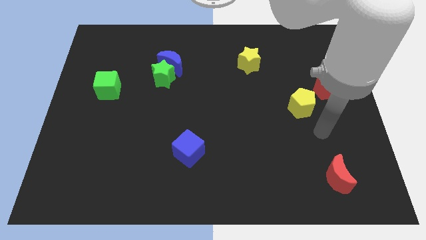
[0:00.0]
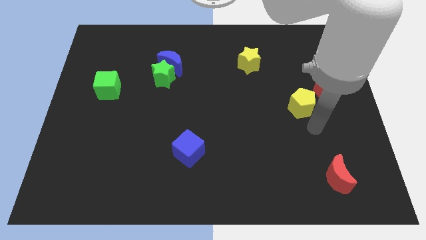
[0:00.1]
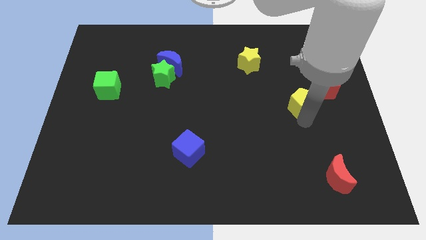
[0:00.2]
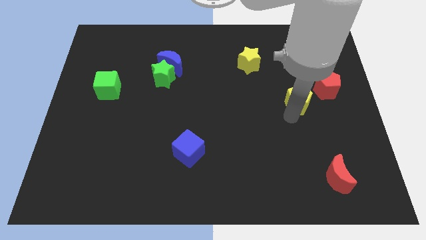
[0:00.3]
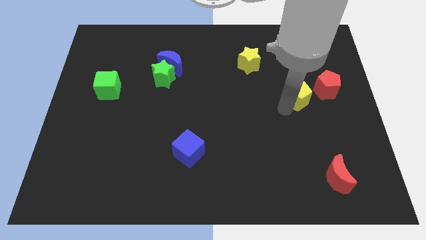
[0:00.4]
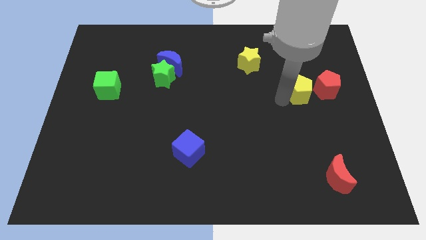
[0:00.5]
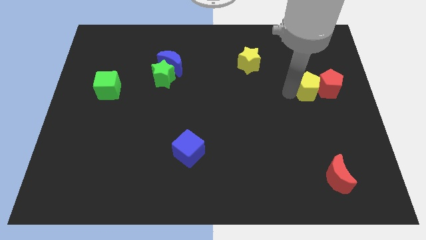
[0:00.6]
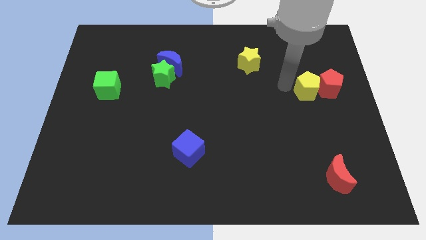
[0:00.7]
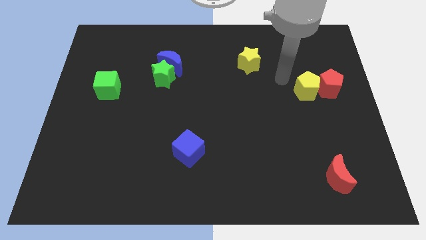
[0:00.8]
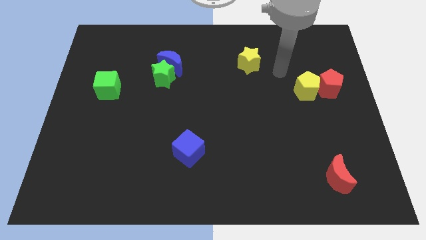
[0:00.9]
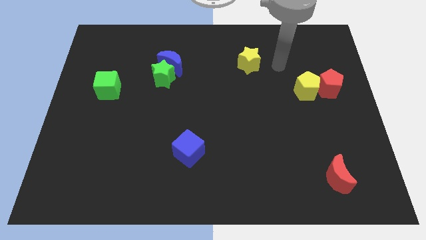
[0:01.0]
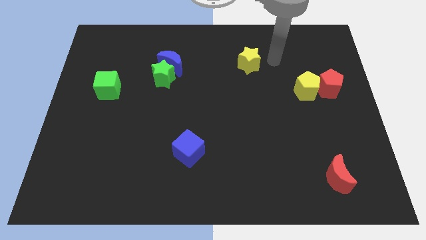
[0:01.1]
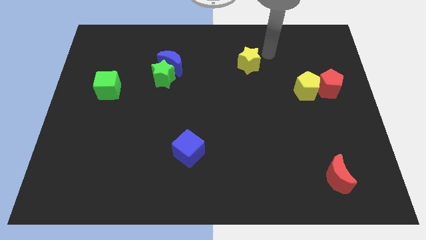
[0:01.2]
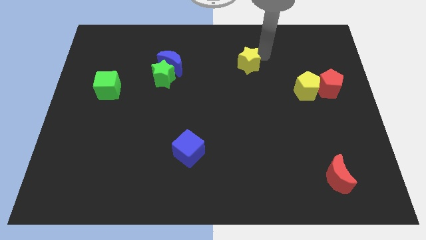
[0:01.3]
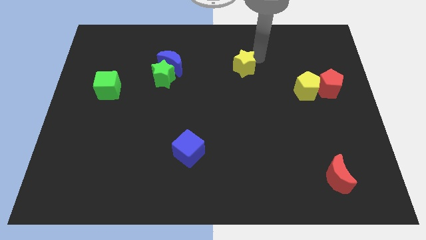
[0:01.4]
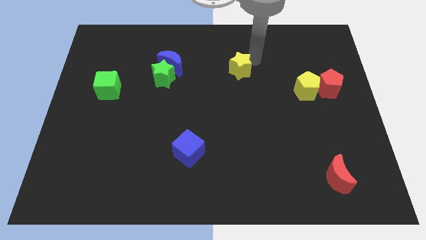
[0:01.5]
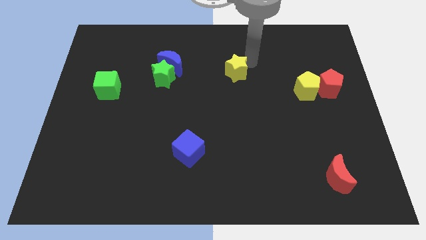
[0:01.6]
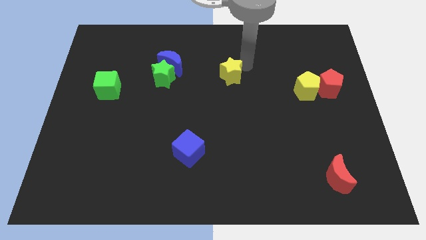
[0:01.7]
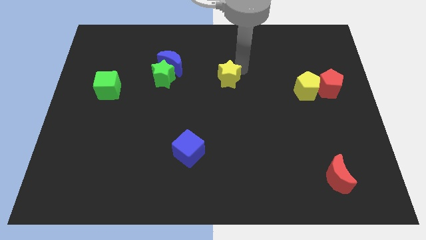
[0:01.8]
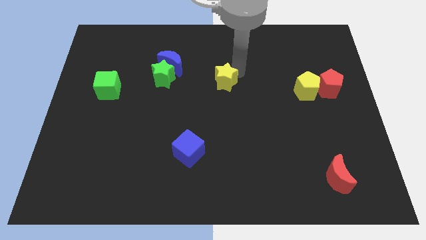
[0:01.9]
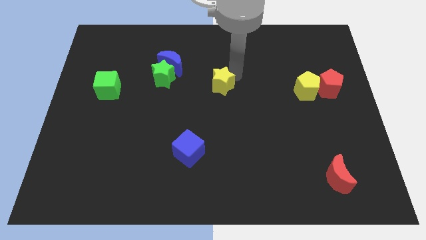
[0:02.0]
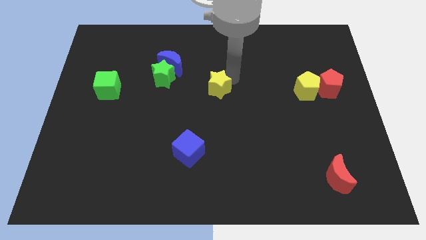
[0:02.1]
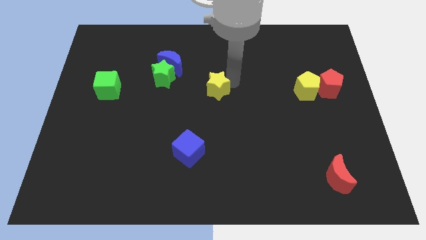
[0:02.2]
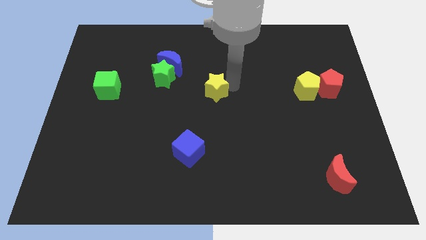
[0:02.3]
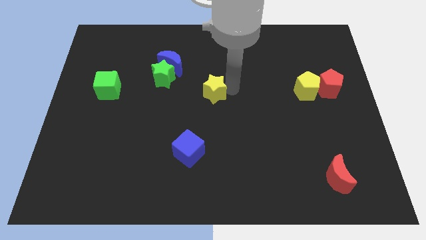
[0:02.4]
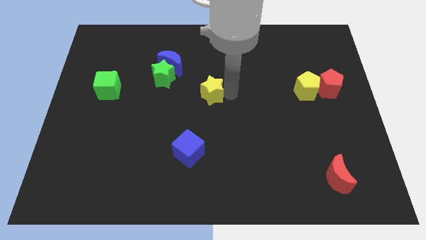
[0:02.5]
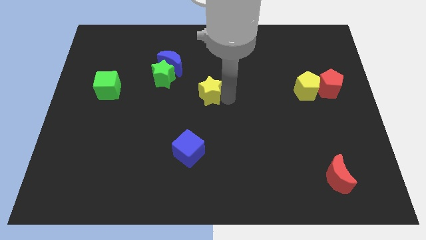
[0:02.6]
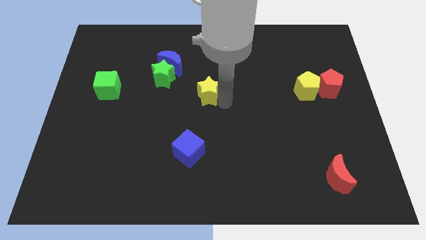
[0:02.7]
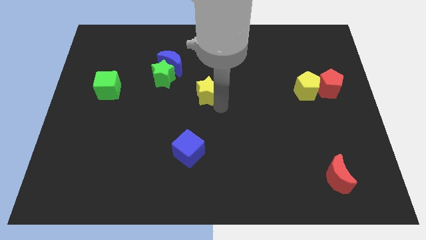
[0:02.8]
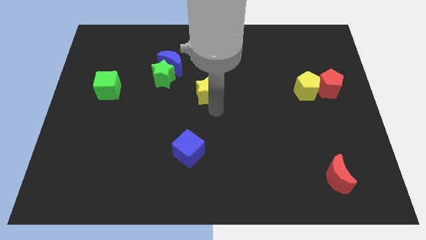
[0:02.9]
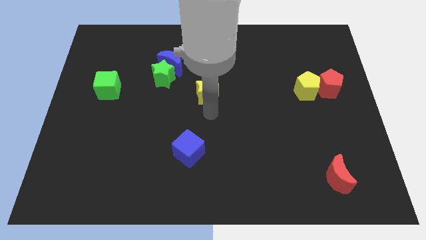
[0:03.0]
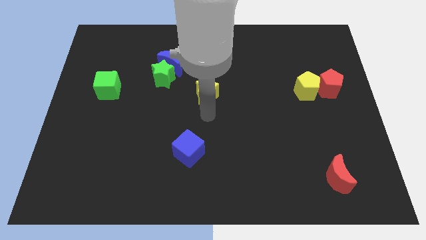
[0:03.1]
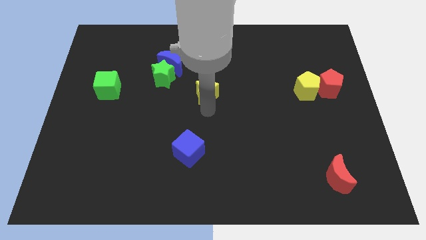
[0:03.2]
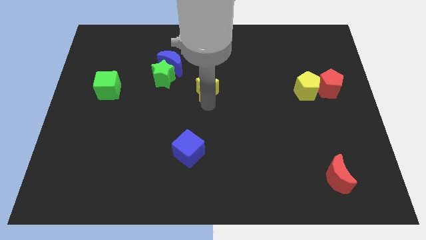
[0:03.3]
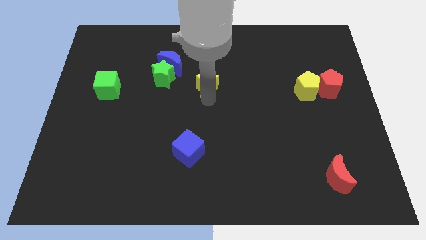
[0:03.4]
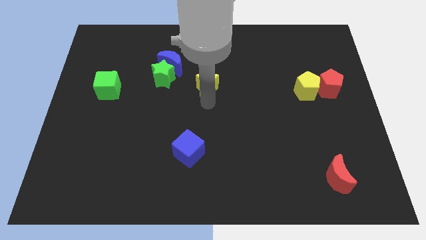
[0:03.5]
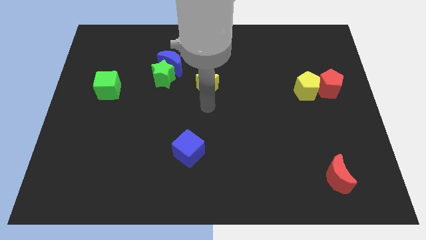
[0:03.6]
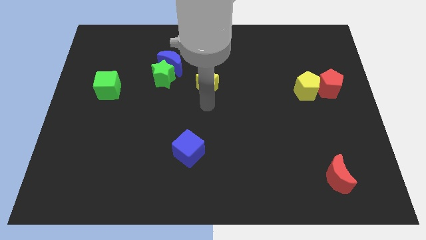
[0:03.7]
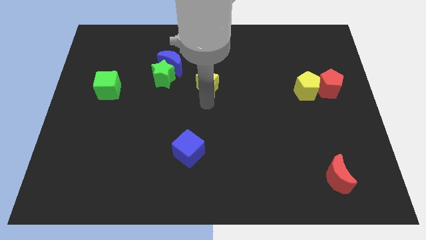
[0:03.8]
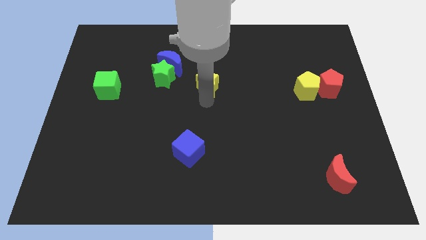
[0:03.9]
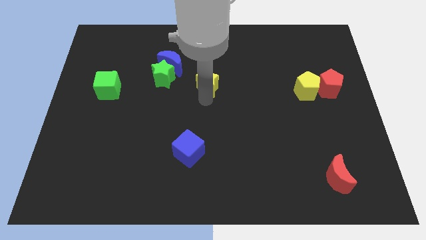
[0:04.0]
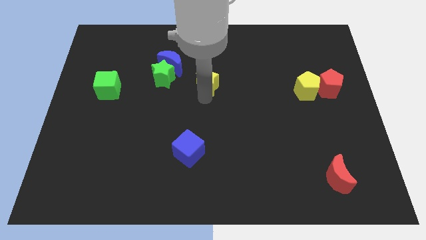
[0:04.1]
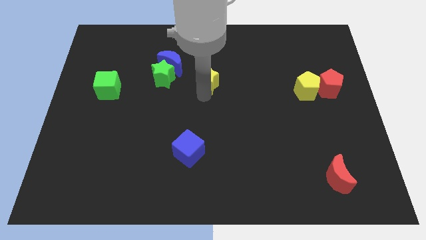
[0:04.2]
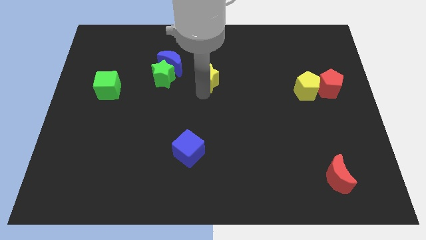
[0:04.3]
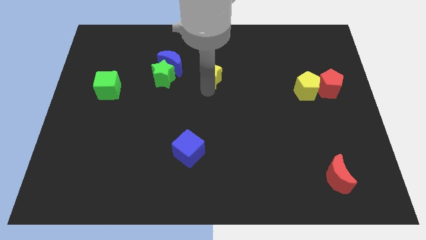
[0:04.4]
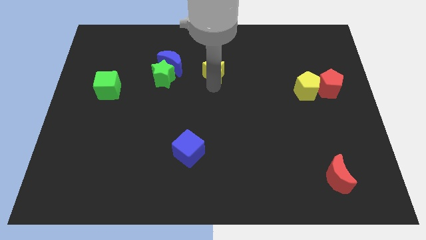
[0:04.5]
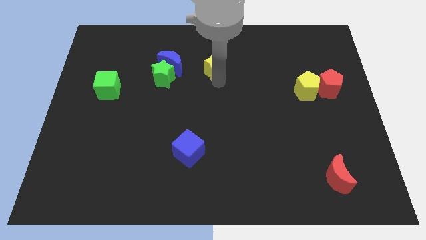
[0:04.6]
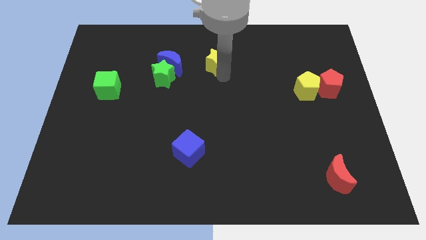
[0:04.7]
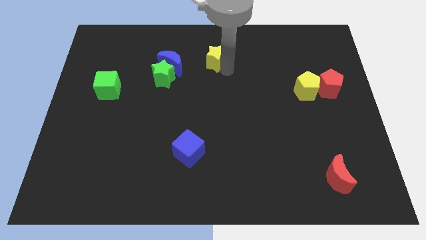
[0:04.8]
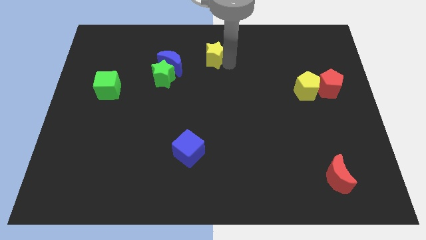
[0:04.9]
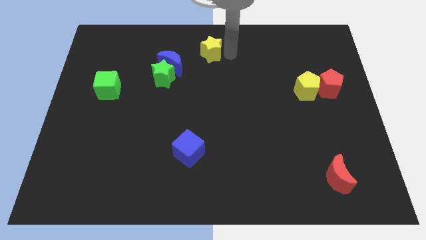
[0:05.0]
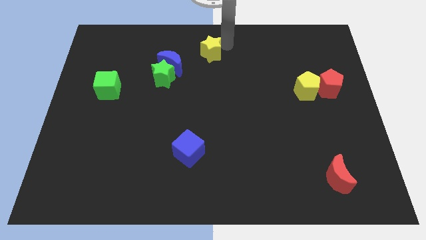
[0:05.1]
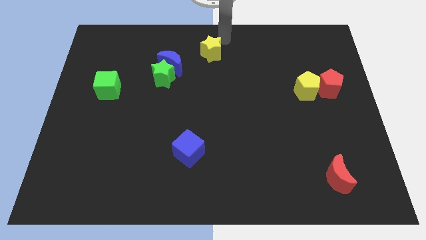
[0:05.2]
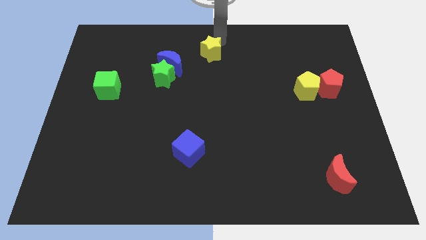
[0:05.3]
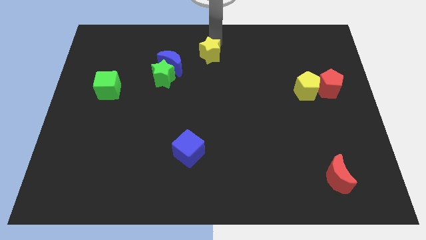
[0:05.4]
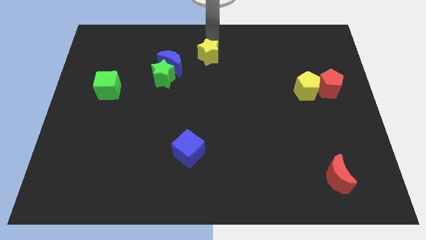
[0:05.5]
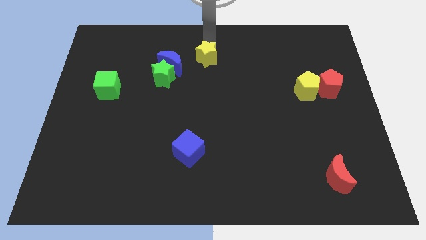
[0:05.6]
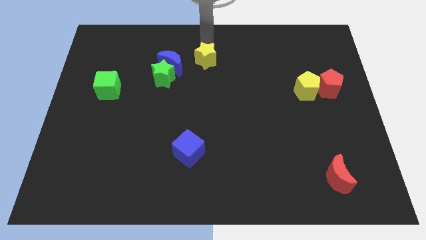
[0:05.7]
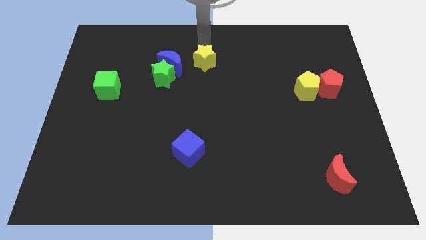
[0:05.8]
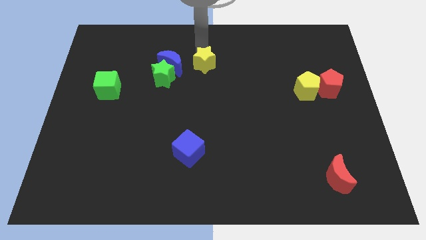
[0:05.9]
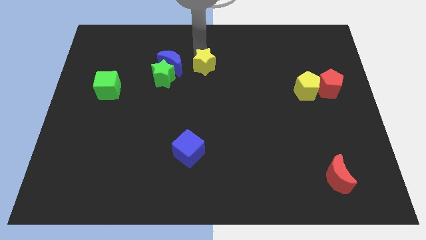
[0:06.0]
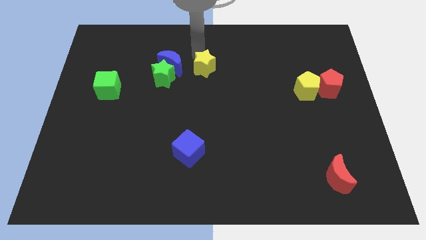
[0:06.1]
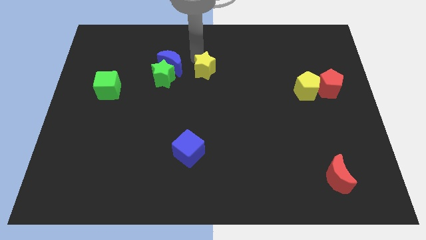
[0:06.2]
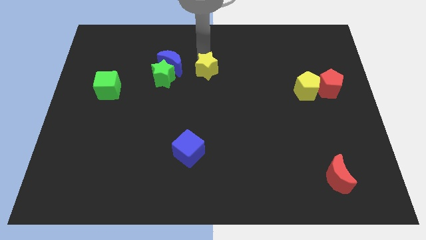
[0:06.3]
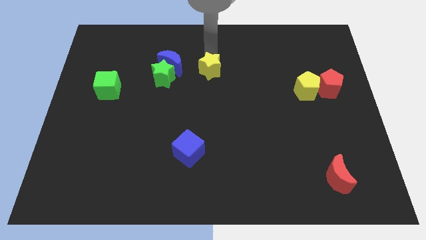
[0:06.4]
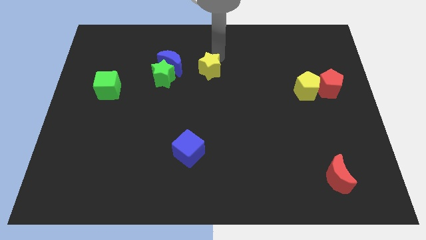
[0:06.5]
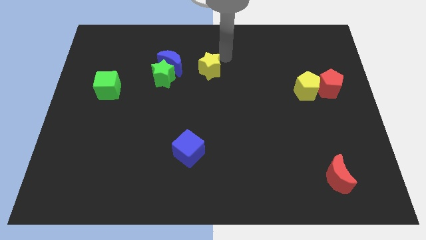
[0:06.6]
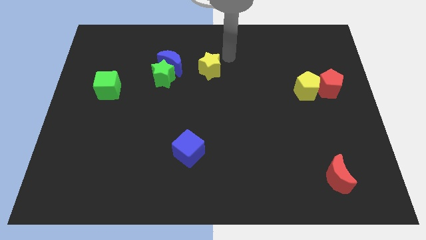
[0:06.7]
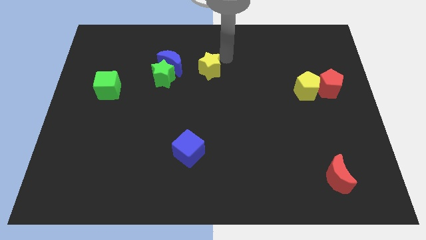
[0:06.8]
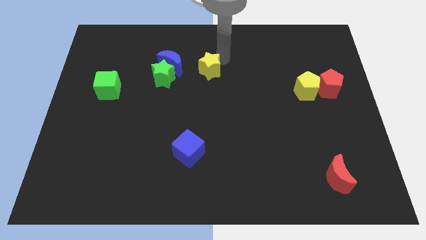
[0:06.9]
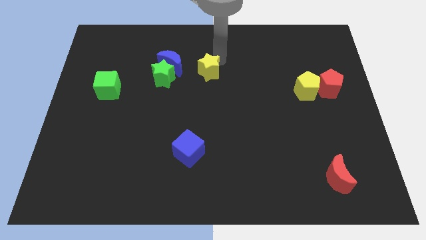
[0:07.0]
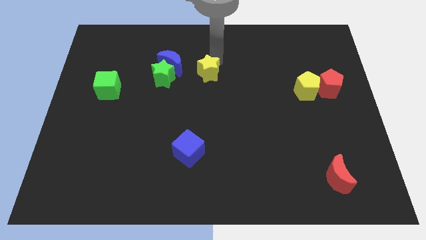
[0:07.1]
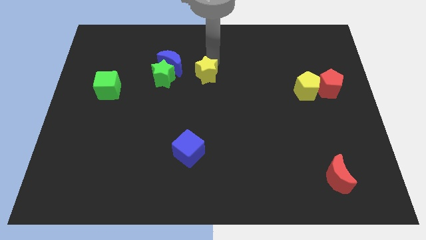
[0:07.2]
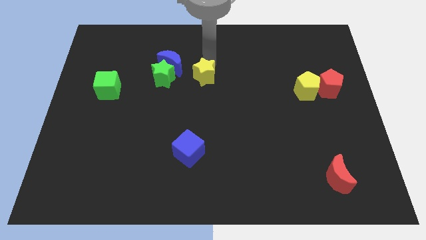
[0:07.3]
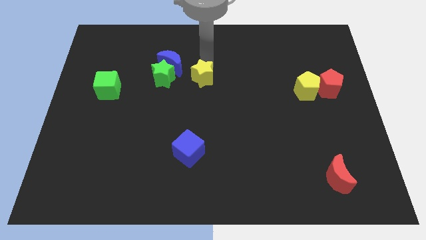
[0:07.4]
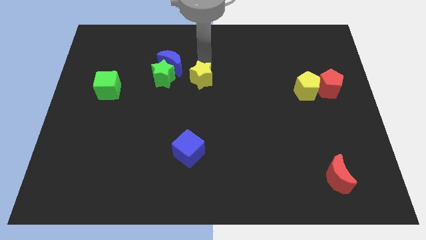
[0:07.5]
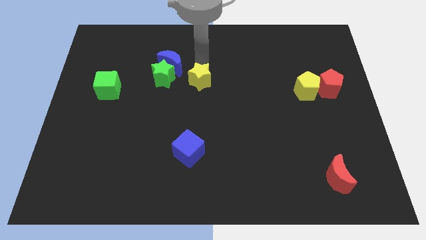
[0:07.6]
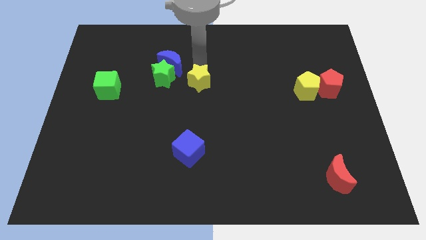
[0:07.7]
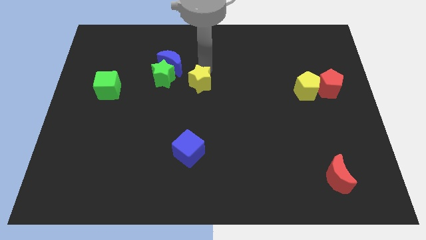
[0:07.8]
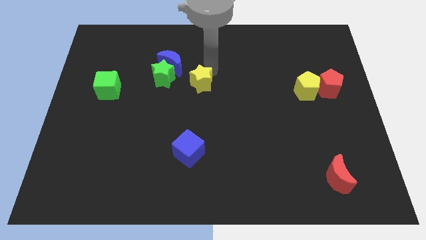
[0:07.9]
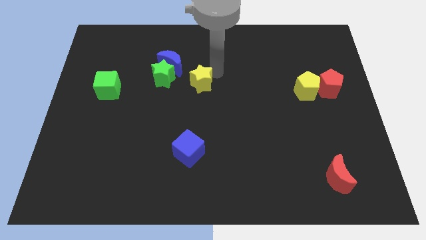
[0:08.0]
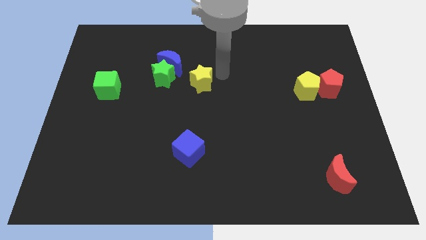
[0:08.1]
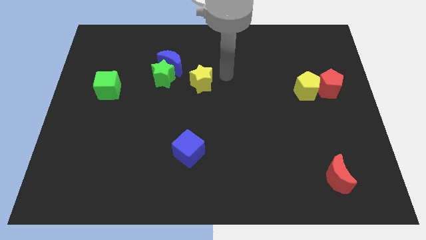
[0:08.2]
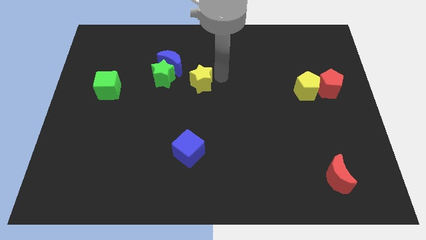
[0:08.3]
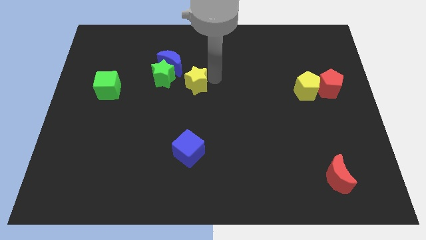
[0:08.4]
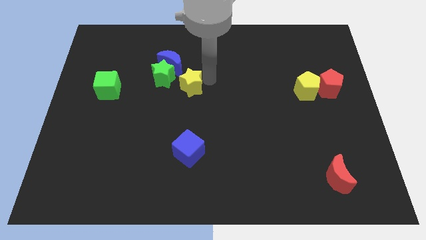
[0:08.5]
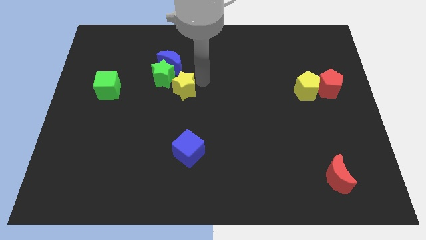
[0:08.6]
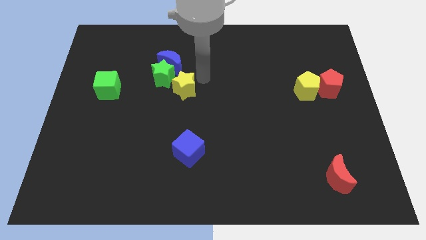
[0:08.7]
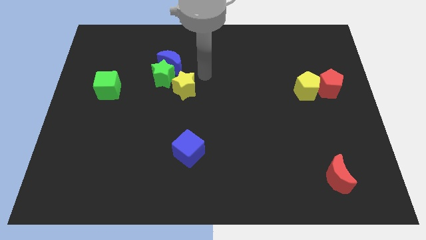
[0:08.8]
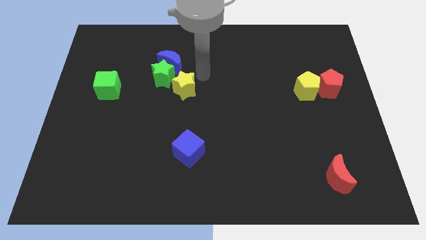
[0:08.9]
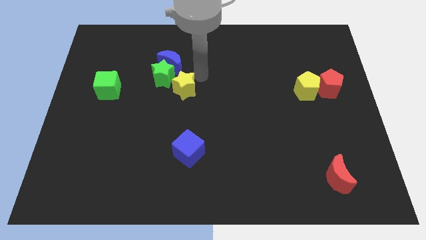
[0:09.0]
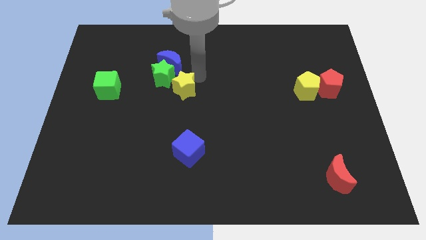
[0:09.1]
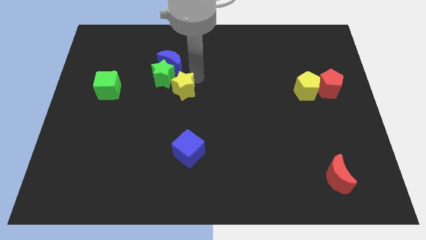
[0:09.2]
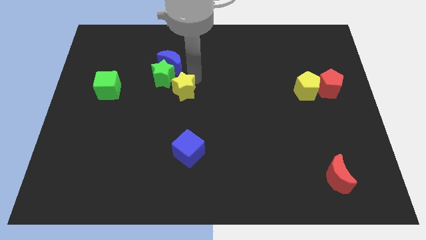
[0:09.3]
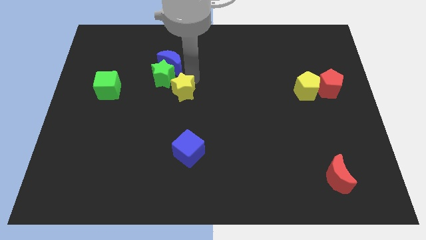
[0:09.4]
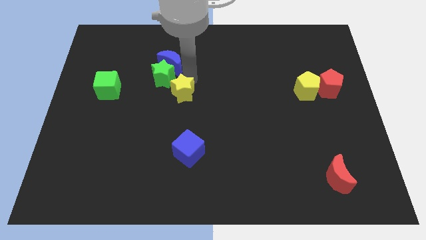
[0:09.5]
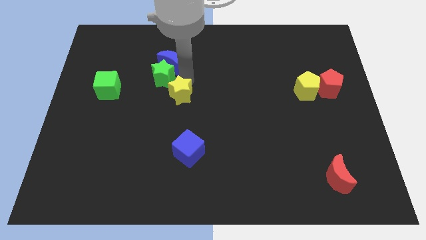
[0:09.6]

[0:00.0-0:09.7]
put the yellow star to the bottom of the green star
